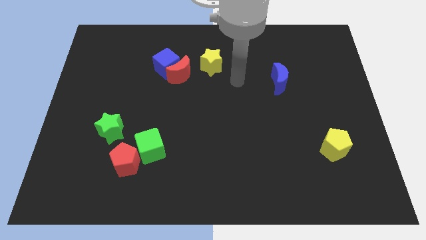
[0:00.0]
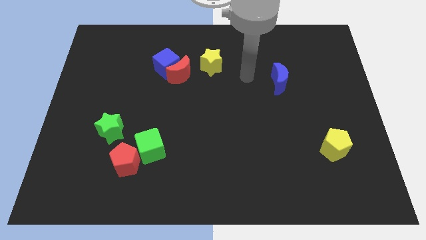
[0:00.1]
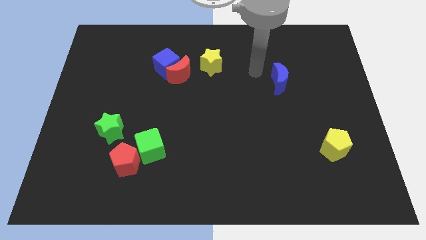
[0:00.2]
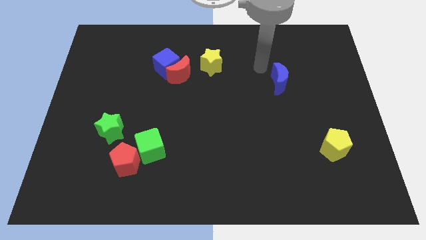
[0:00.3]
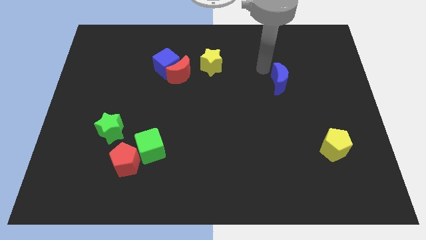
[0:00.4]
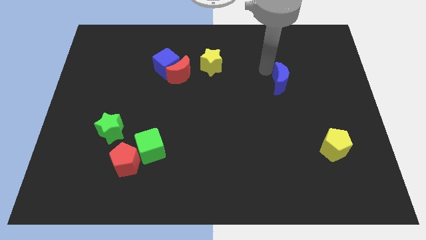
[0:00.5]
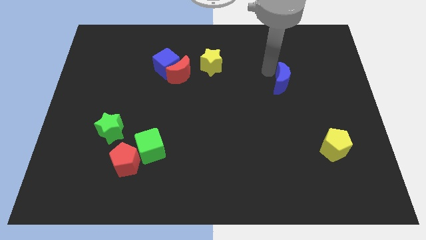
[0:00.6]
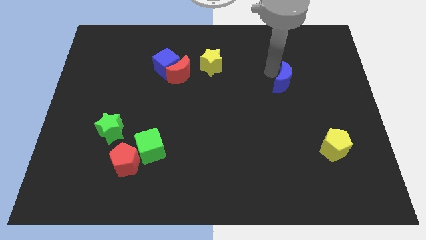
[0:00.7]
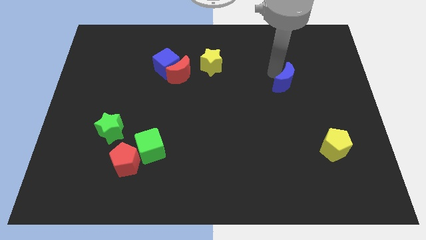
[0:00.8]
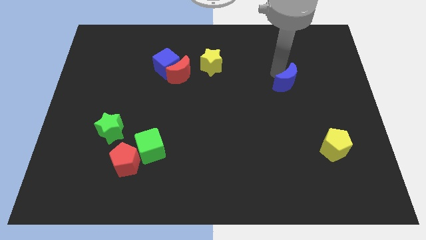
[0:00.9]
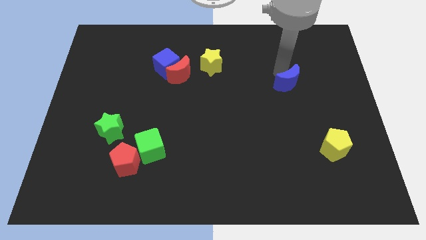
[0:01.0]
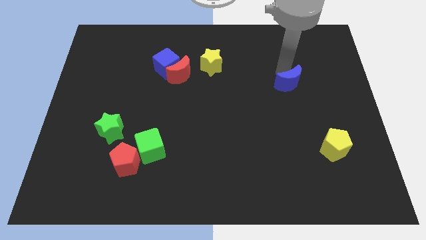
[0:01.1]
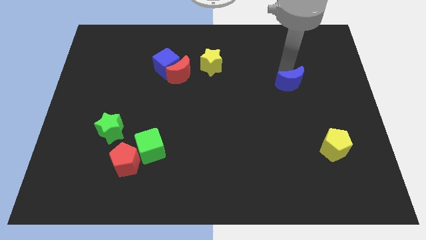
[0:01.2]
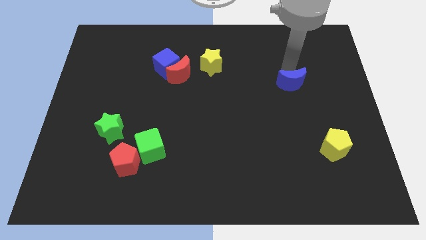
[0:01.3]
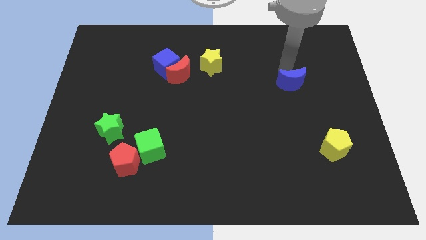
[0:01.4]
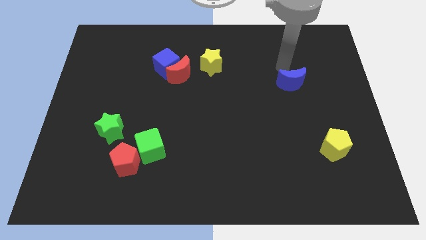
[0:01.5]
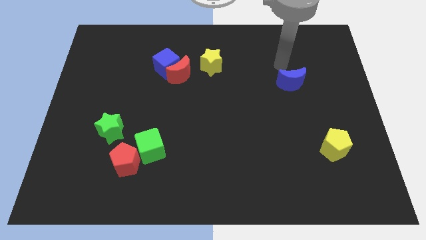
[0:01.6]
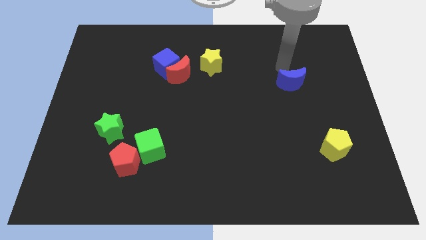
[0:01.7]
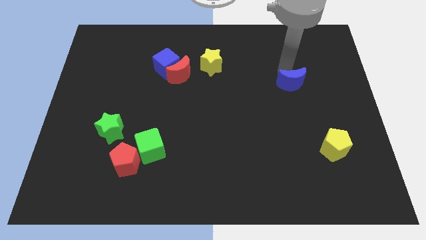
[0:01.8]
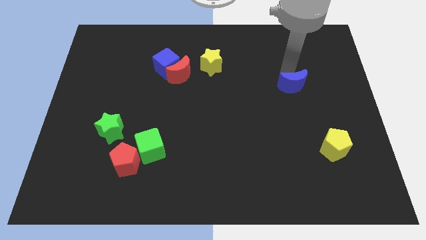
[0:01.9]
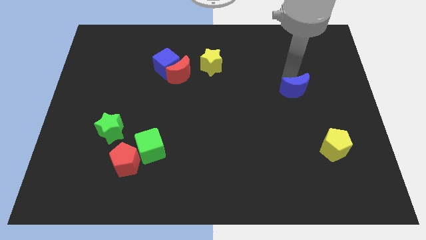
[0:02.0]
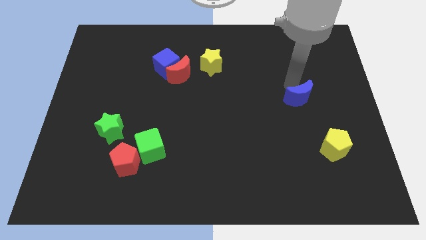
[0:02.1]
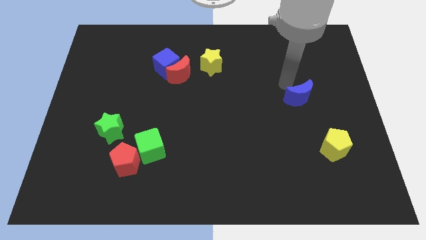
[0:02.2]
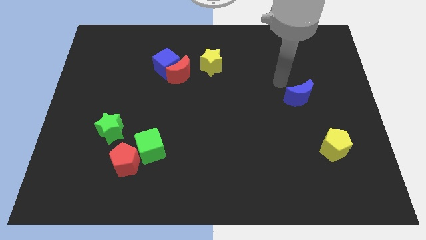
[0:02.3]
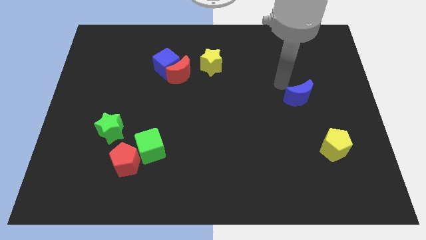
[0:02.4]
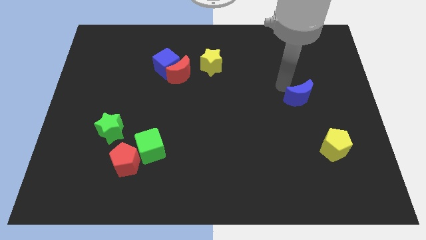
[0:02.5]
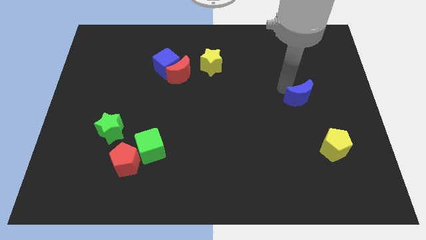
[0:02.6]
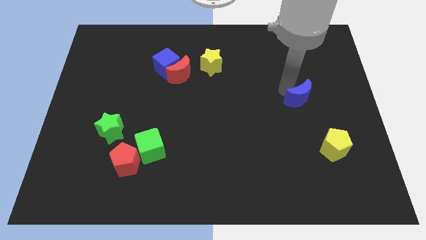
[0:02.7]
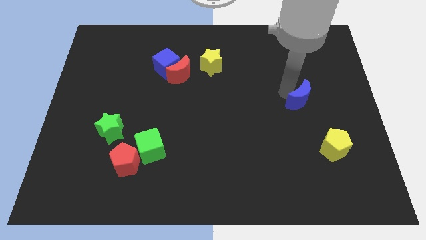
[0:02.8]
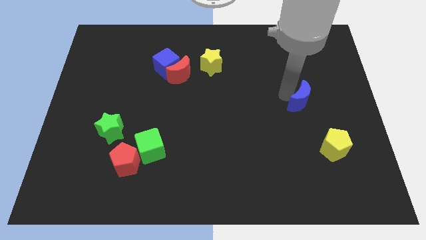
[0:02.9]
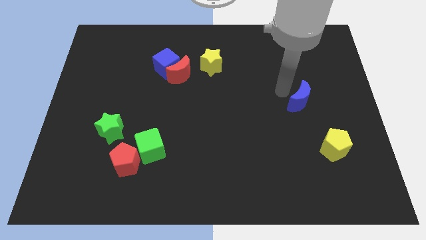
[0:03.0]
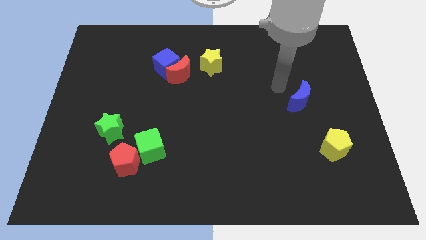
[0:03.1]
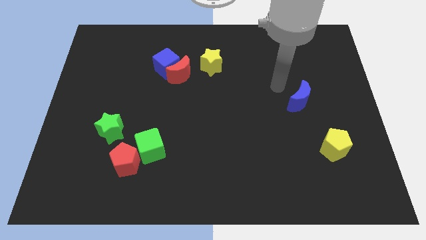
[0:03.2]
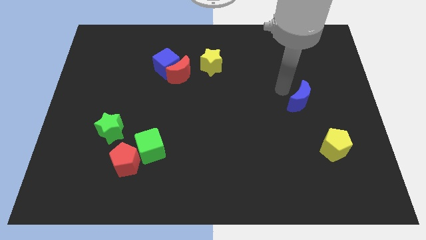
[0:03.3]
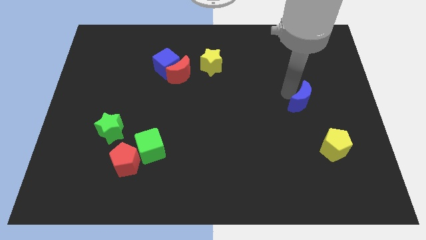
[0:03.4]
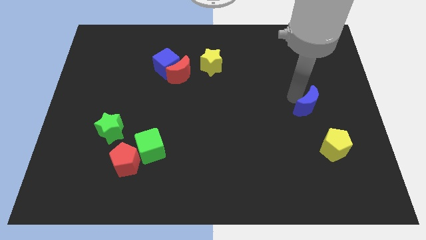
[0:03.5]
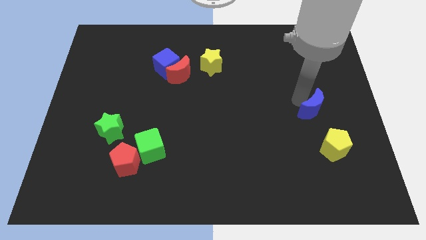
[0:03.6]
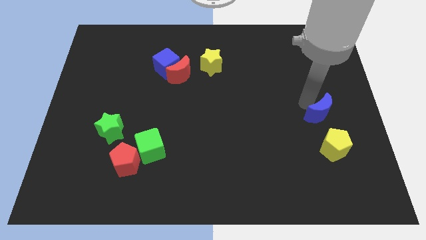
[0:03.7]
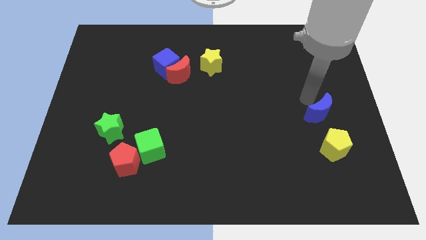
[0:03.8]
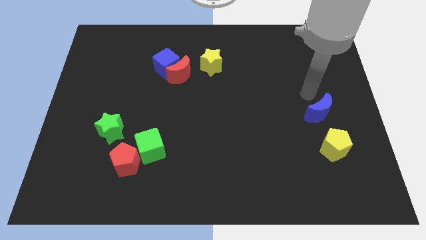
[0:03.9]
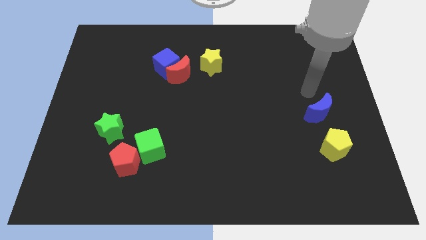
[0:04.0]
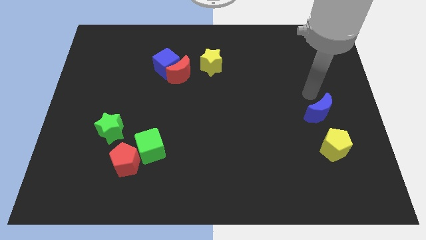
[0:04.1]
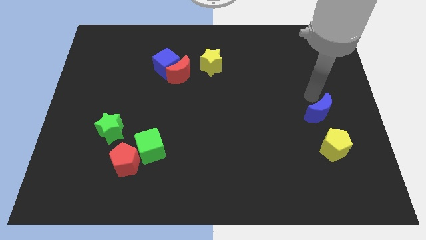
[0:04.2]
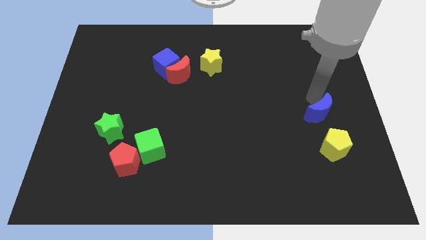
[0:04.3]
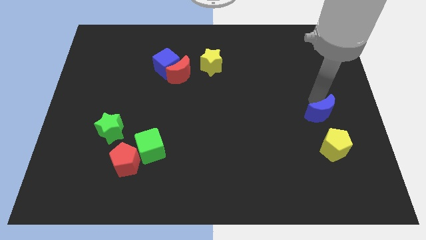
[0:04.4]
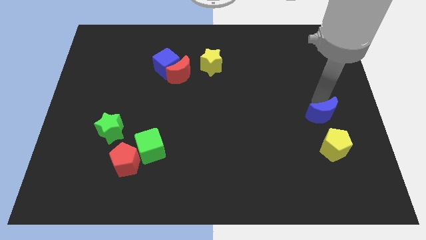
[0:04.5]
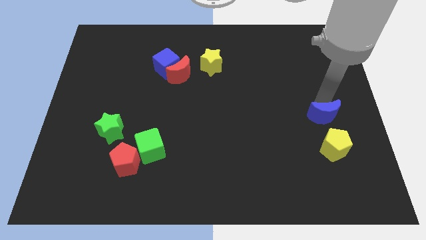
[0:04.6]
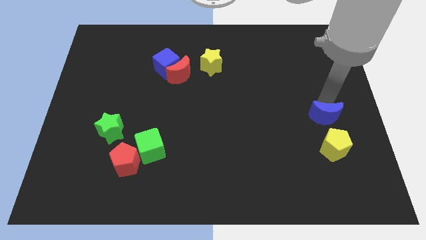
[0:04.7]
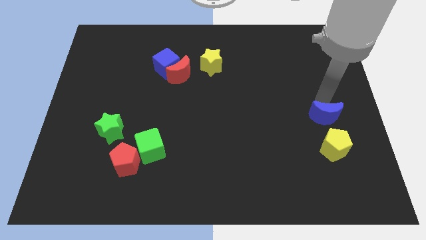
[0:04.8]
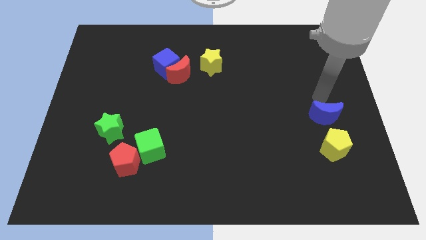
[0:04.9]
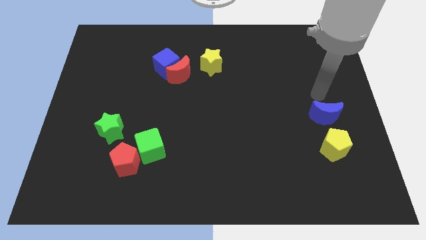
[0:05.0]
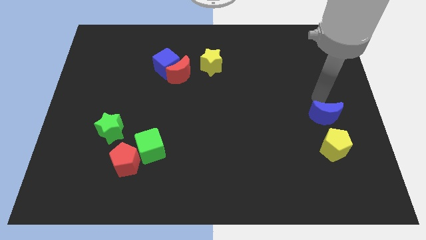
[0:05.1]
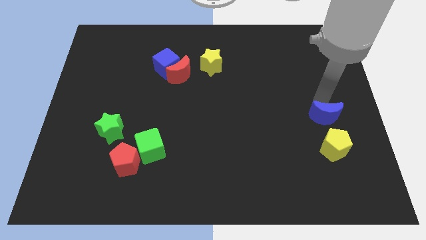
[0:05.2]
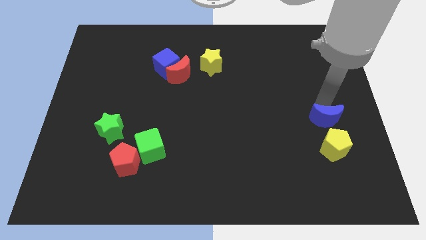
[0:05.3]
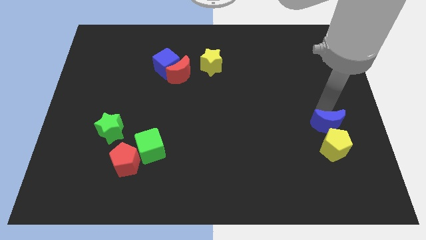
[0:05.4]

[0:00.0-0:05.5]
move the blue moon close to the yellow pentagon

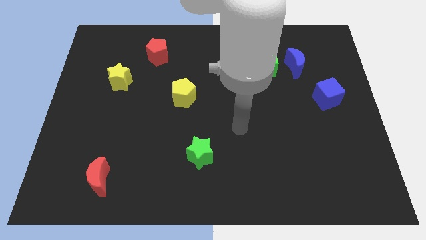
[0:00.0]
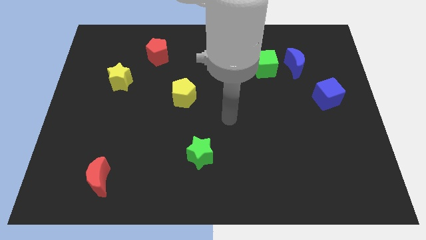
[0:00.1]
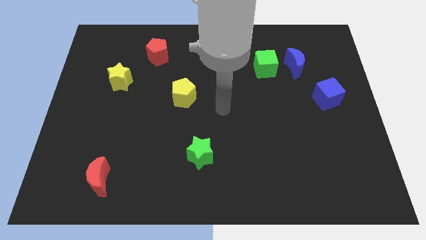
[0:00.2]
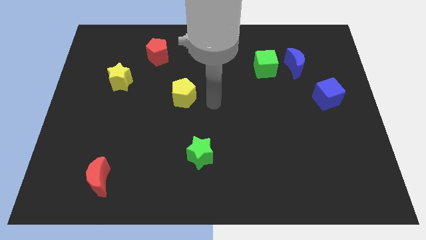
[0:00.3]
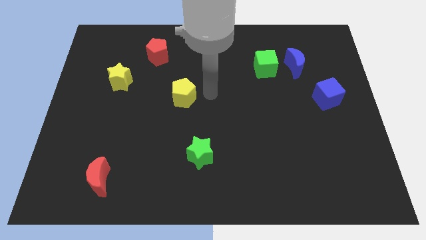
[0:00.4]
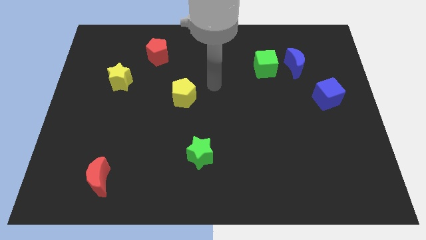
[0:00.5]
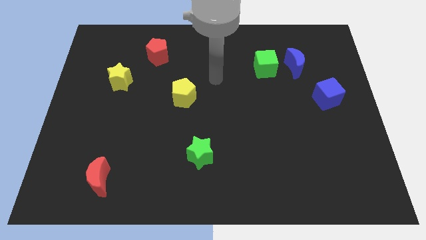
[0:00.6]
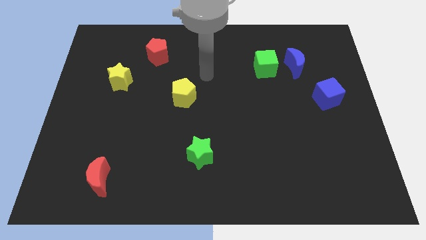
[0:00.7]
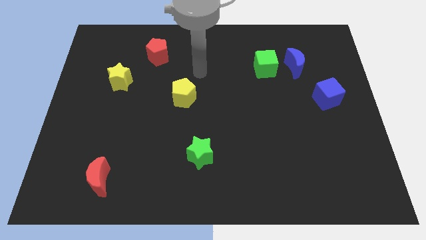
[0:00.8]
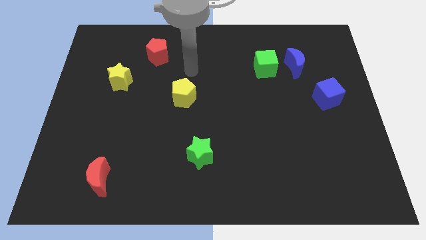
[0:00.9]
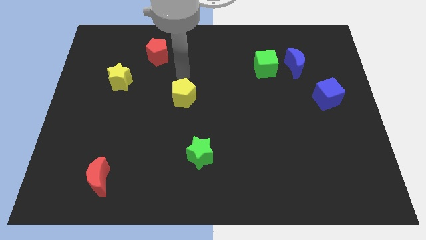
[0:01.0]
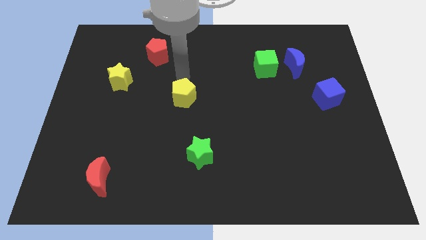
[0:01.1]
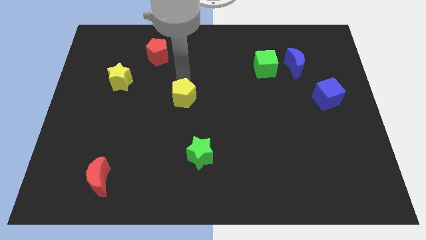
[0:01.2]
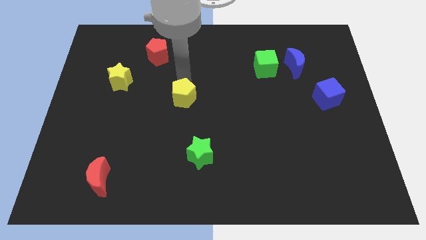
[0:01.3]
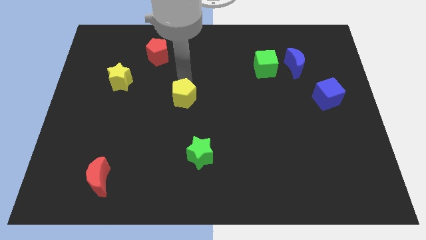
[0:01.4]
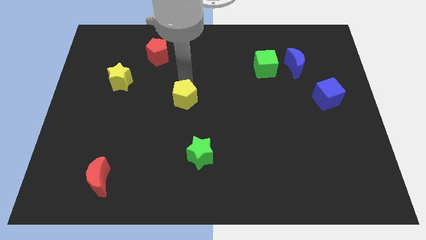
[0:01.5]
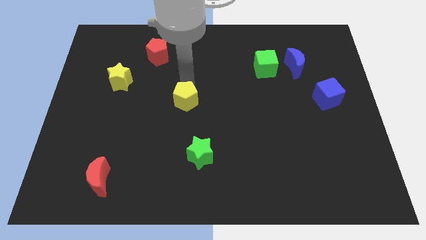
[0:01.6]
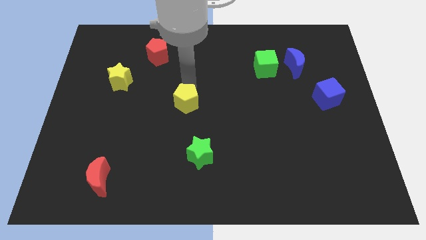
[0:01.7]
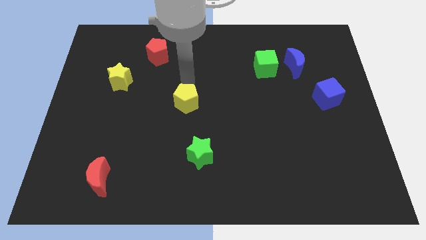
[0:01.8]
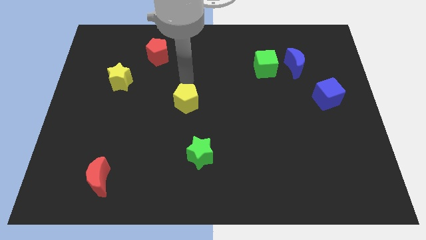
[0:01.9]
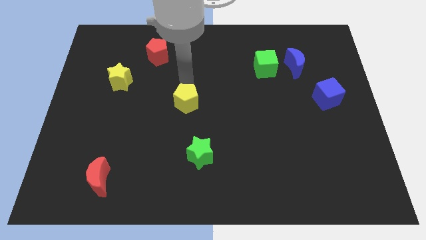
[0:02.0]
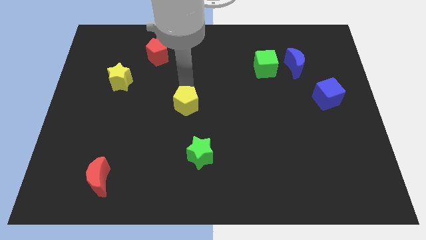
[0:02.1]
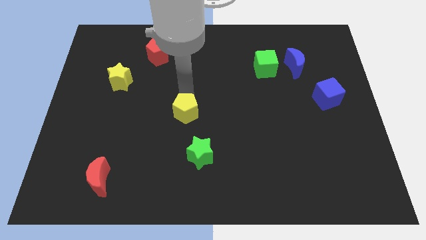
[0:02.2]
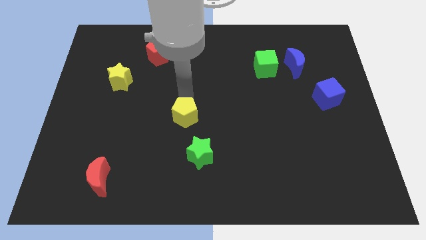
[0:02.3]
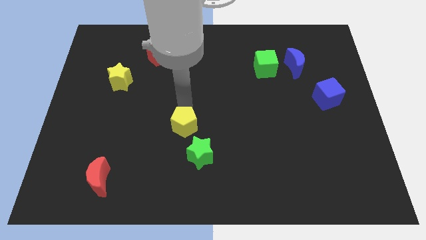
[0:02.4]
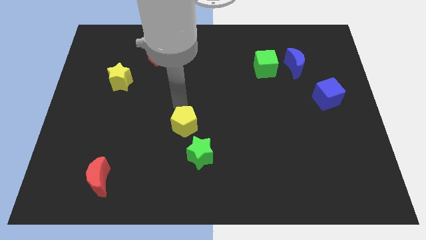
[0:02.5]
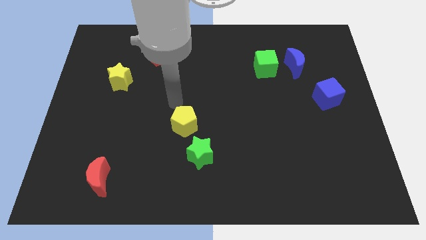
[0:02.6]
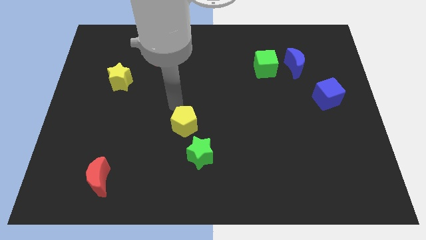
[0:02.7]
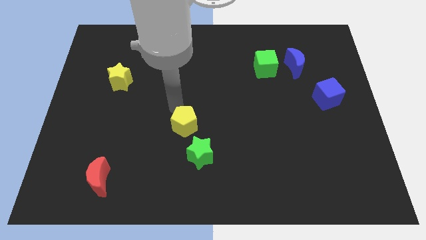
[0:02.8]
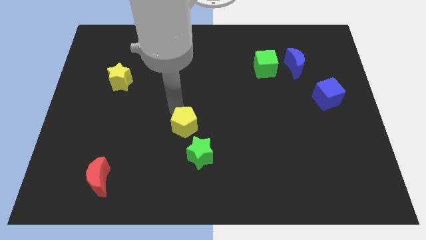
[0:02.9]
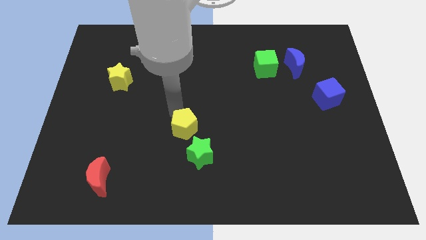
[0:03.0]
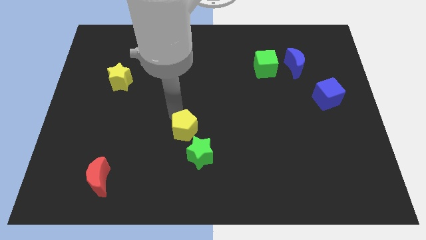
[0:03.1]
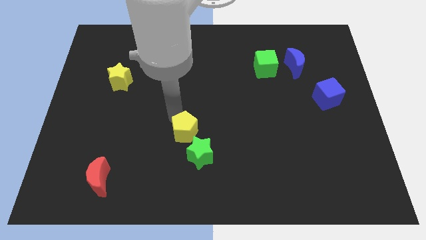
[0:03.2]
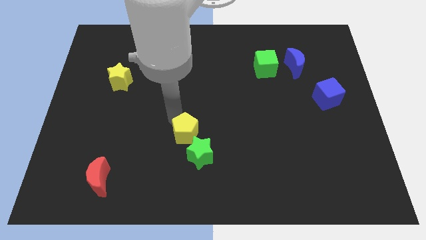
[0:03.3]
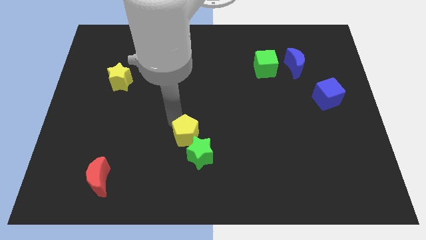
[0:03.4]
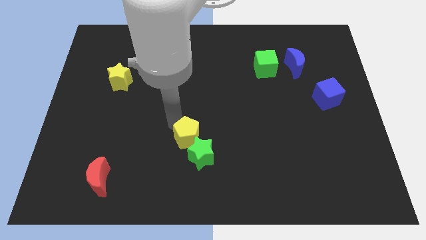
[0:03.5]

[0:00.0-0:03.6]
push the yellow pentagon to the green star
